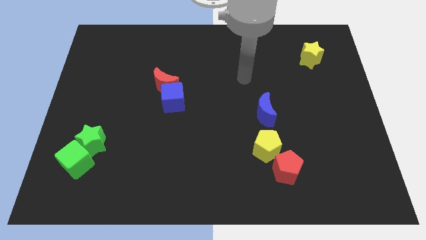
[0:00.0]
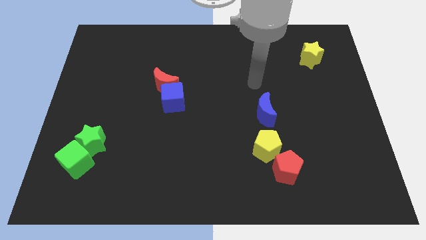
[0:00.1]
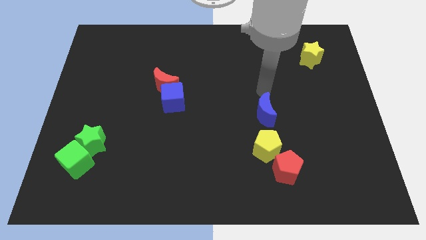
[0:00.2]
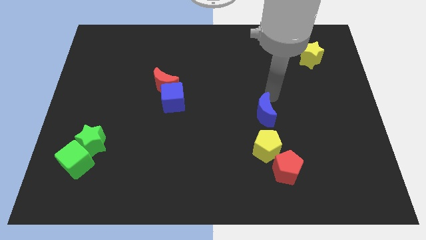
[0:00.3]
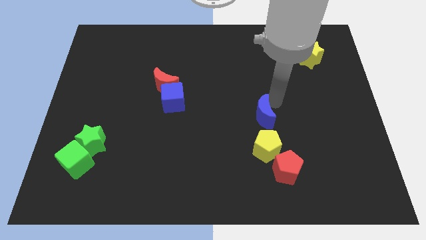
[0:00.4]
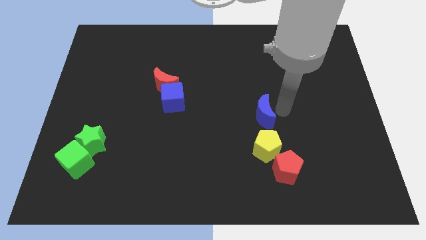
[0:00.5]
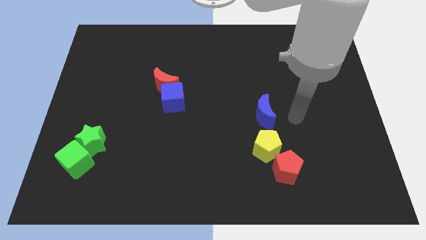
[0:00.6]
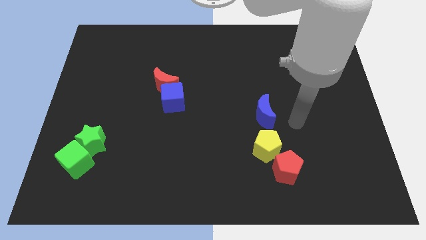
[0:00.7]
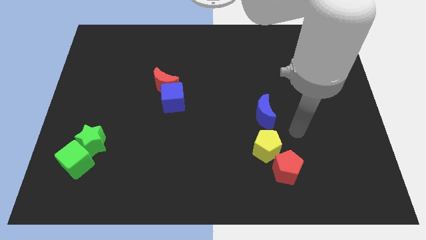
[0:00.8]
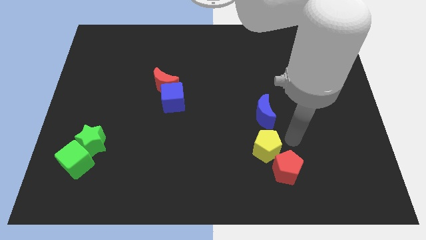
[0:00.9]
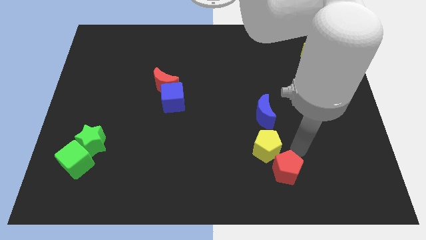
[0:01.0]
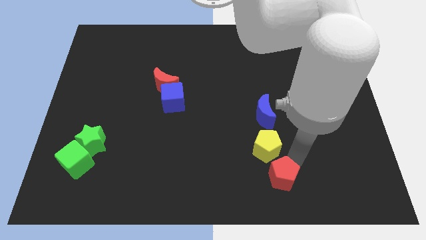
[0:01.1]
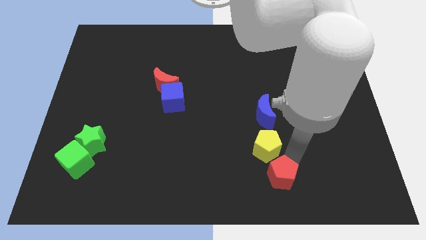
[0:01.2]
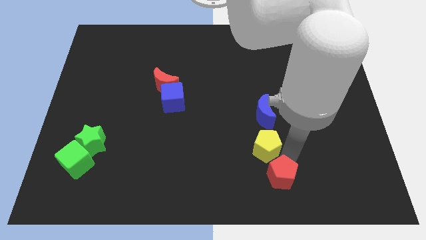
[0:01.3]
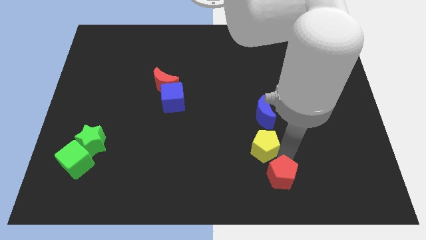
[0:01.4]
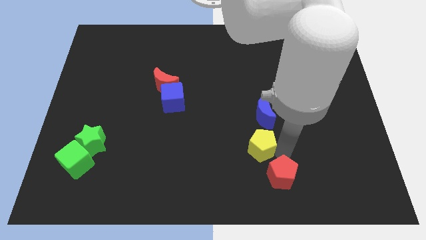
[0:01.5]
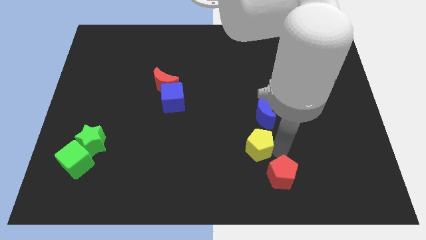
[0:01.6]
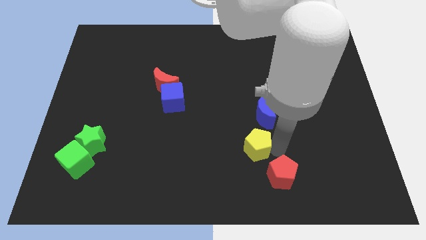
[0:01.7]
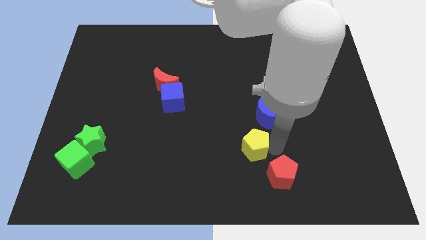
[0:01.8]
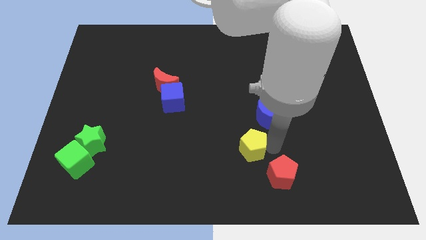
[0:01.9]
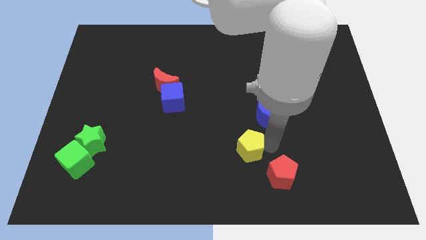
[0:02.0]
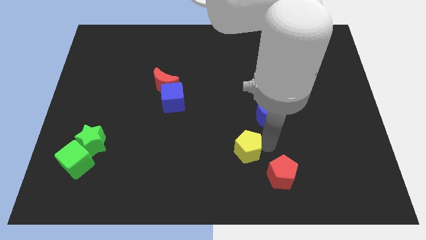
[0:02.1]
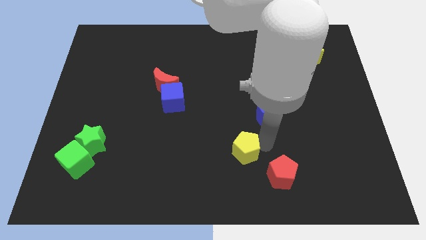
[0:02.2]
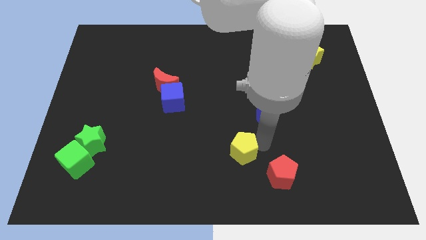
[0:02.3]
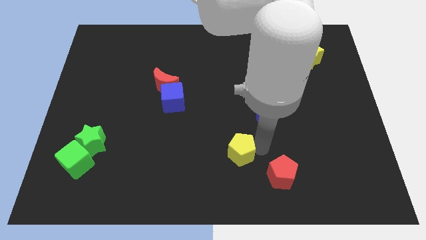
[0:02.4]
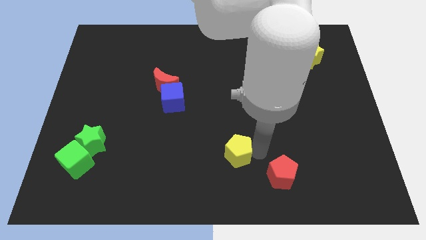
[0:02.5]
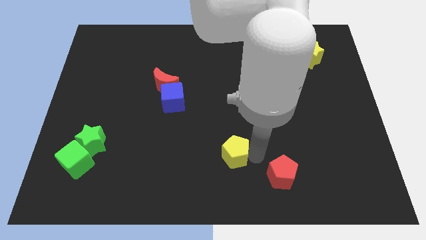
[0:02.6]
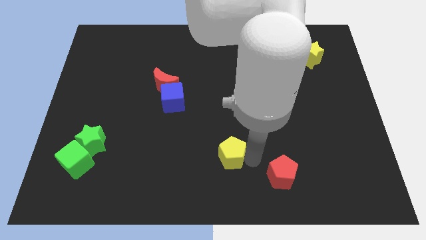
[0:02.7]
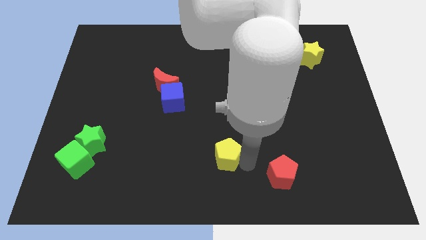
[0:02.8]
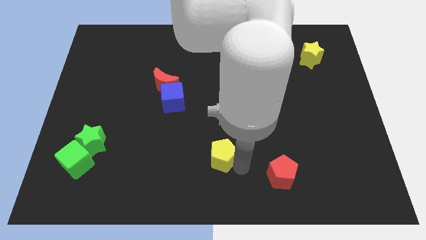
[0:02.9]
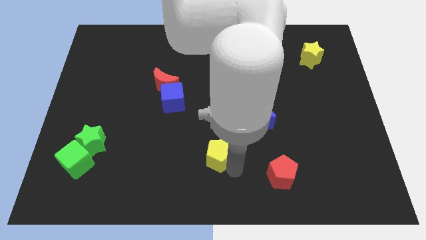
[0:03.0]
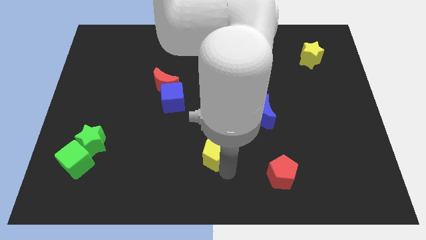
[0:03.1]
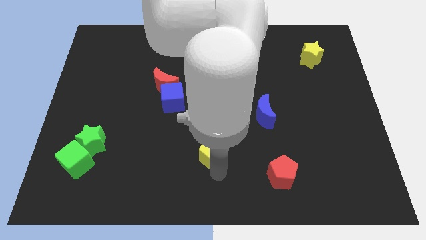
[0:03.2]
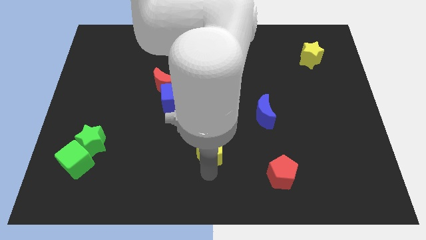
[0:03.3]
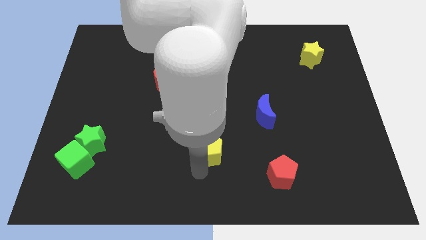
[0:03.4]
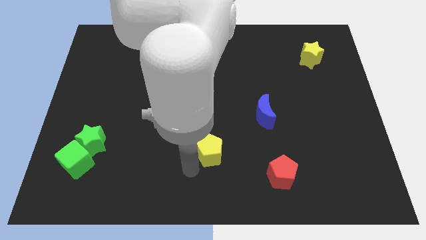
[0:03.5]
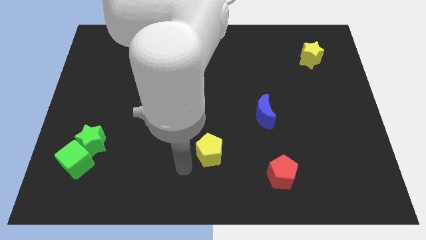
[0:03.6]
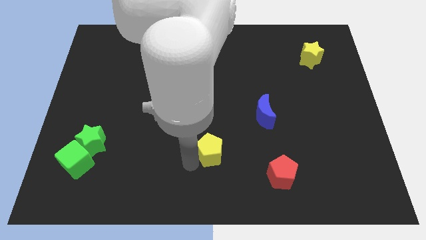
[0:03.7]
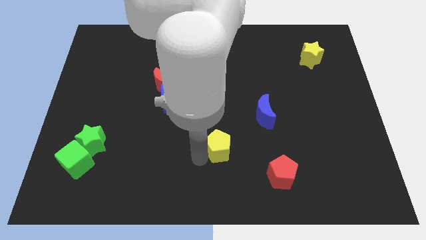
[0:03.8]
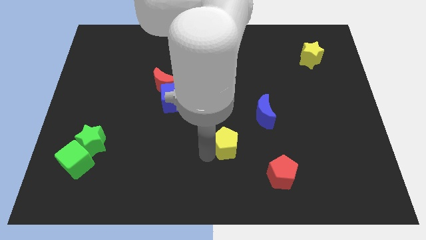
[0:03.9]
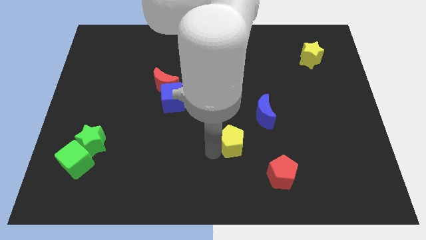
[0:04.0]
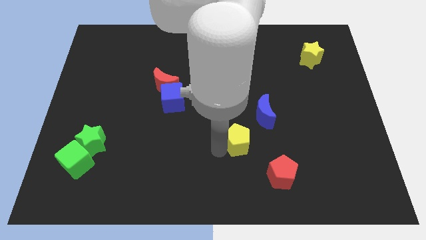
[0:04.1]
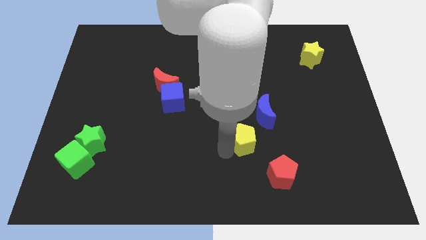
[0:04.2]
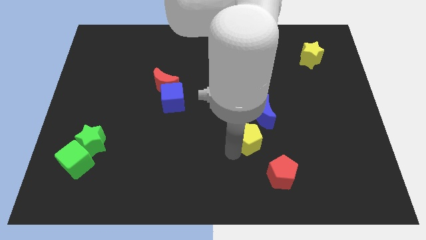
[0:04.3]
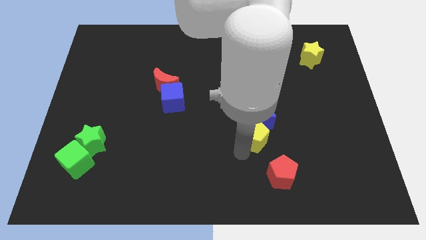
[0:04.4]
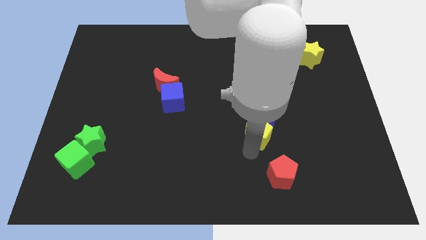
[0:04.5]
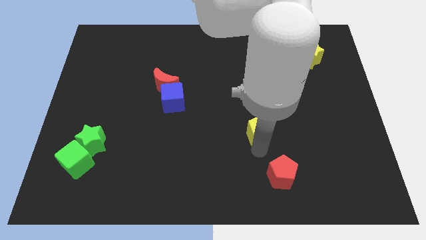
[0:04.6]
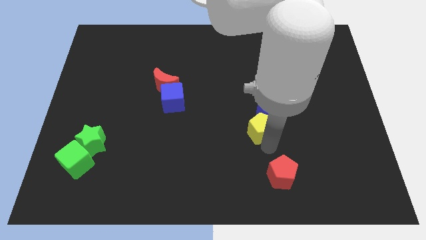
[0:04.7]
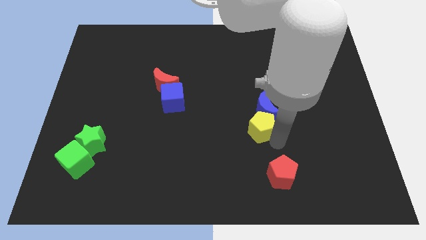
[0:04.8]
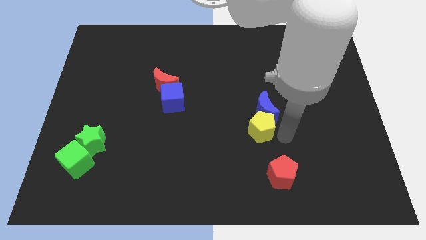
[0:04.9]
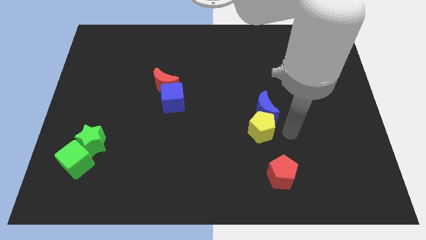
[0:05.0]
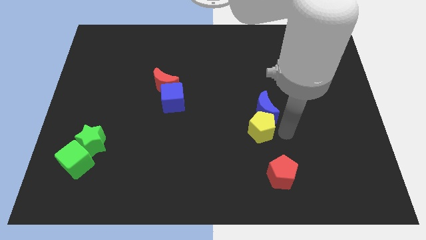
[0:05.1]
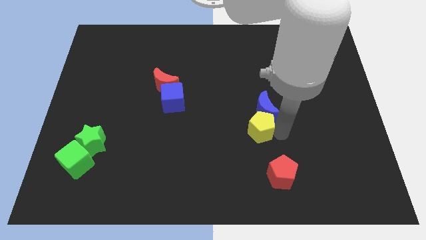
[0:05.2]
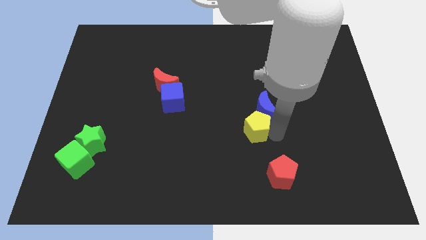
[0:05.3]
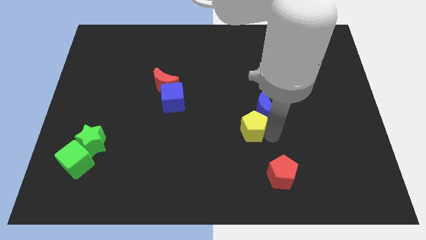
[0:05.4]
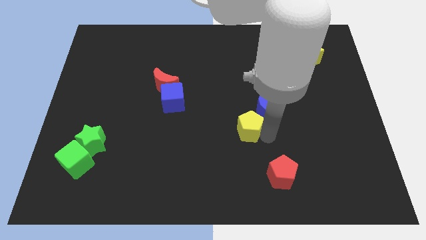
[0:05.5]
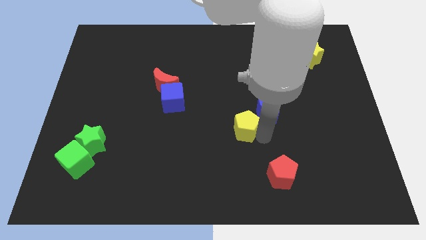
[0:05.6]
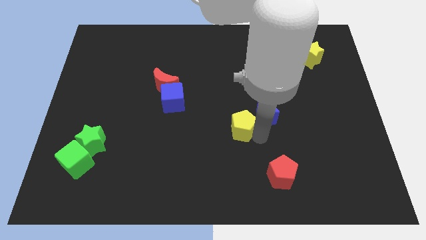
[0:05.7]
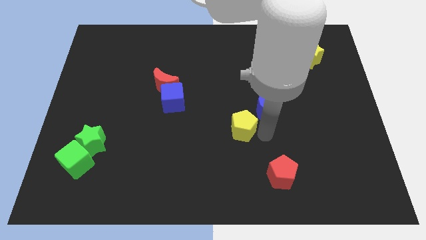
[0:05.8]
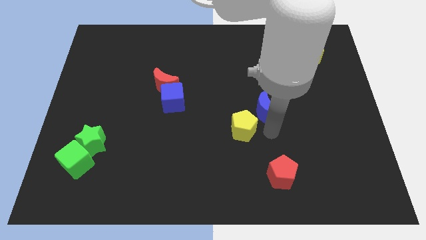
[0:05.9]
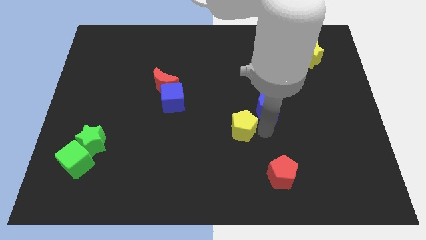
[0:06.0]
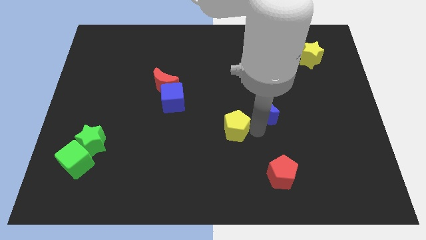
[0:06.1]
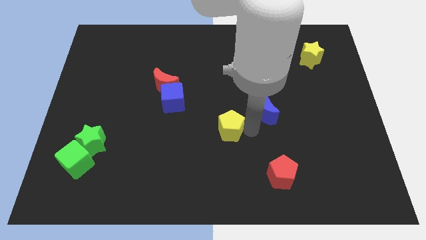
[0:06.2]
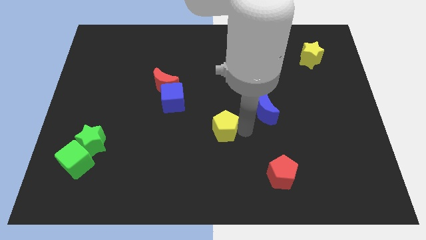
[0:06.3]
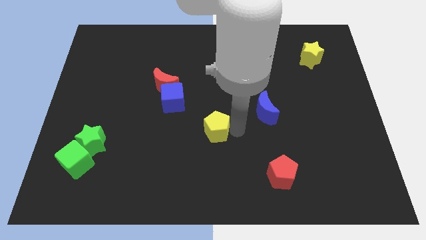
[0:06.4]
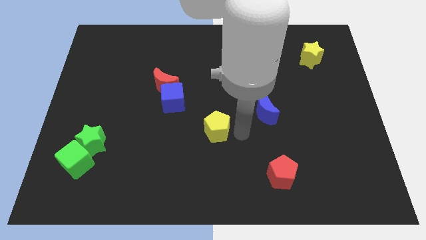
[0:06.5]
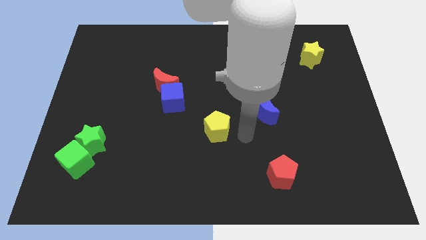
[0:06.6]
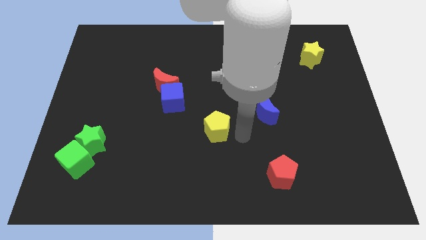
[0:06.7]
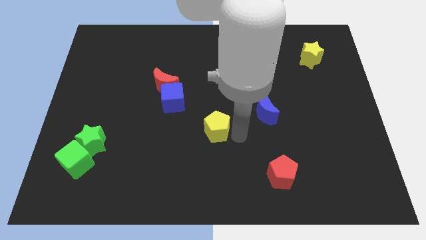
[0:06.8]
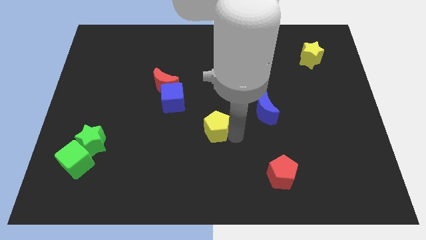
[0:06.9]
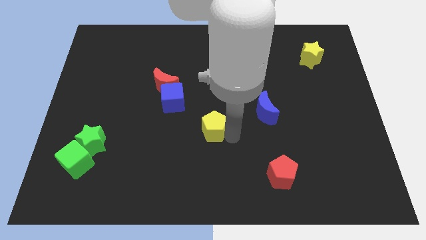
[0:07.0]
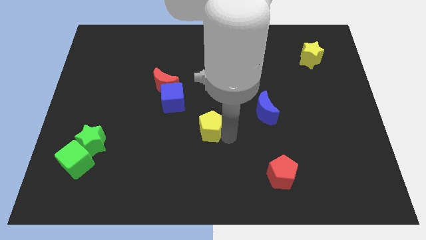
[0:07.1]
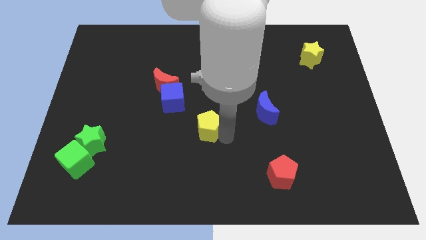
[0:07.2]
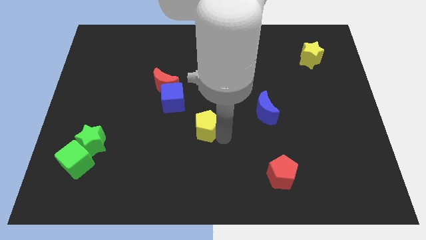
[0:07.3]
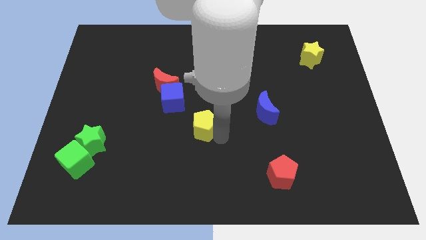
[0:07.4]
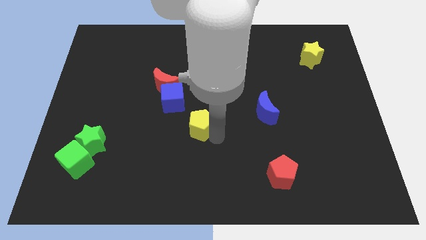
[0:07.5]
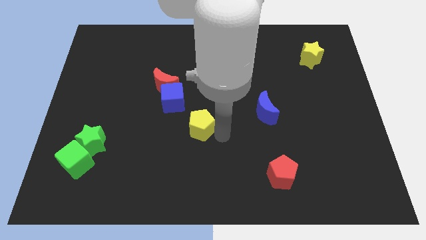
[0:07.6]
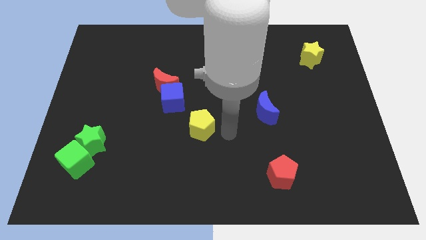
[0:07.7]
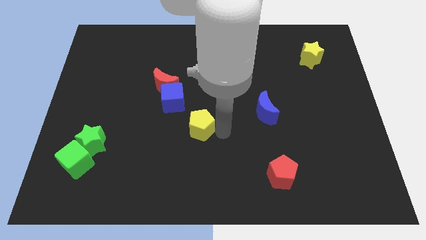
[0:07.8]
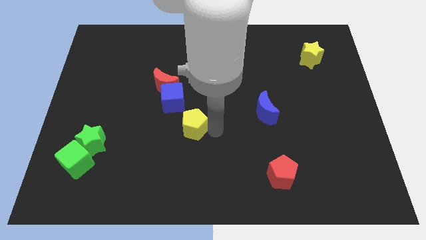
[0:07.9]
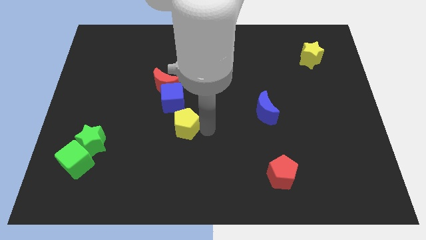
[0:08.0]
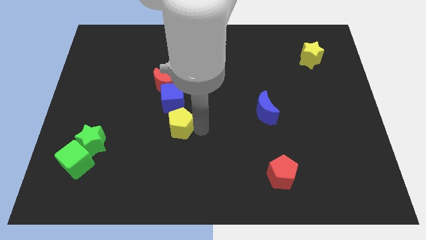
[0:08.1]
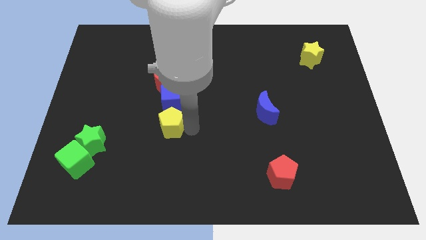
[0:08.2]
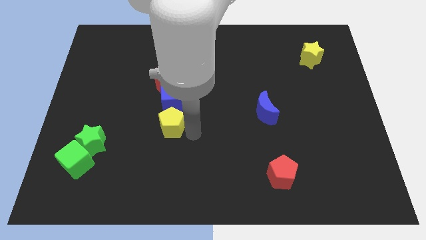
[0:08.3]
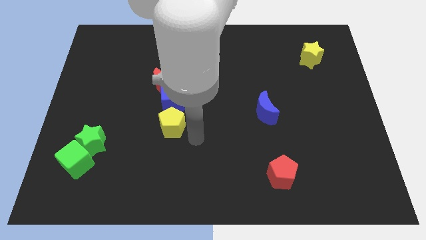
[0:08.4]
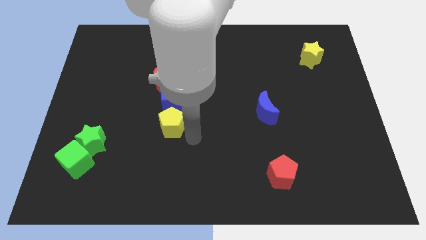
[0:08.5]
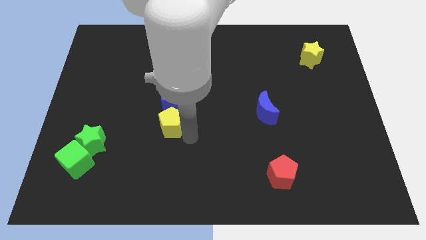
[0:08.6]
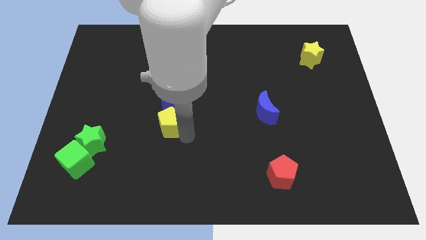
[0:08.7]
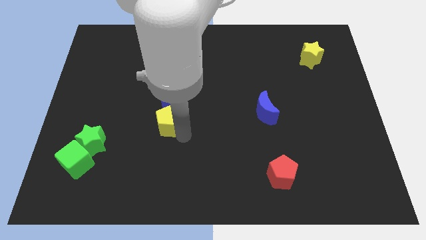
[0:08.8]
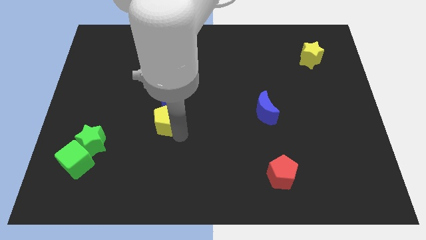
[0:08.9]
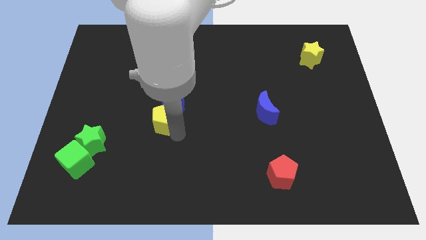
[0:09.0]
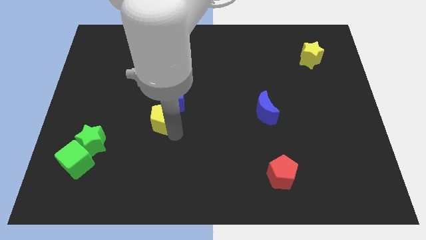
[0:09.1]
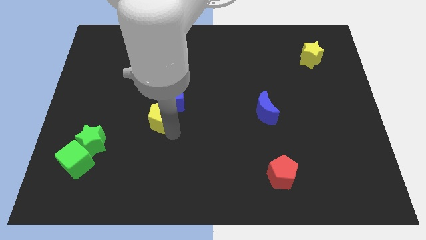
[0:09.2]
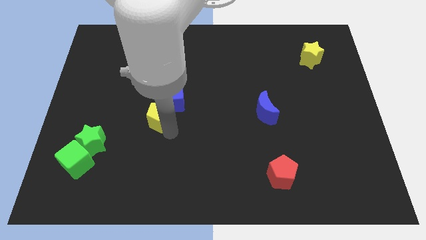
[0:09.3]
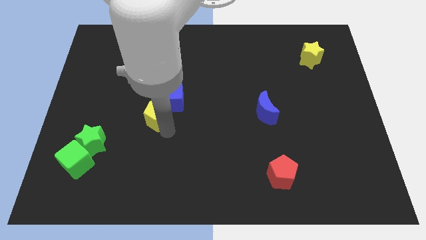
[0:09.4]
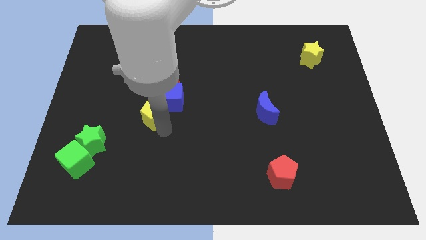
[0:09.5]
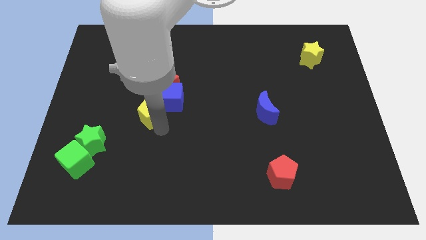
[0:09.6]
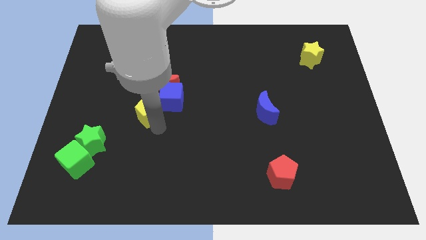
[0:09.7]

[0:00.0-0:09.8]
move the yellow pentagon to the bottom left side of the red moon
